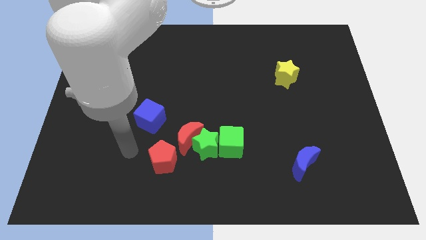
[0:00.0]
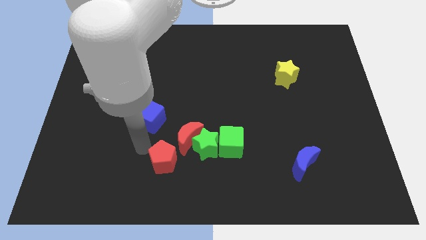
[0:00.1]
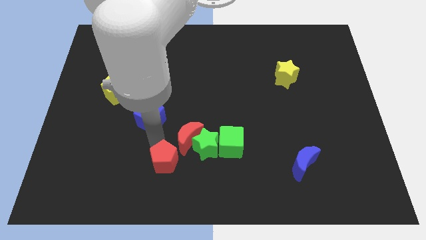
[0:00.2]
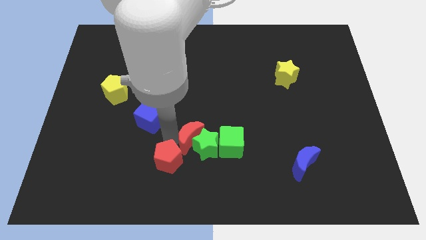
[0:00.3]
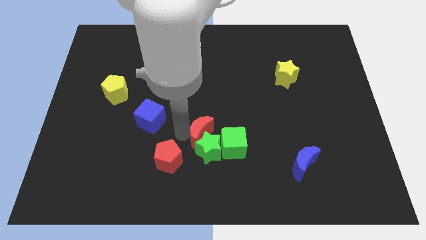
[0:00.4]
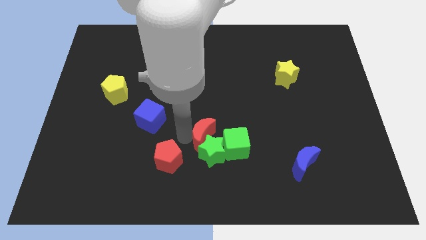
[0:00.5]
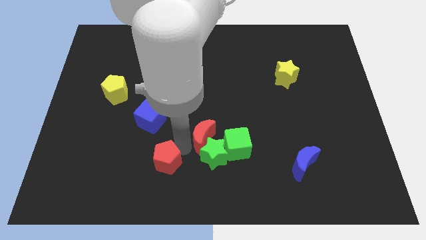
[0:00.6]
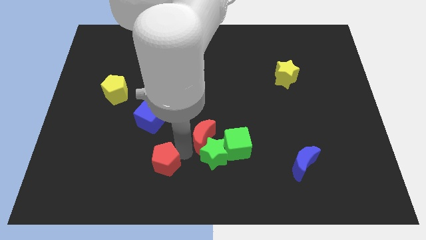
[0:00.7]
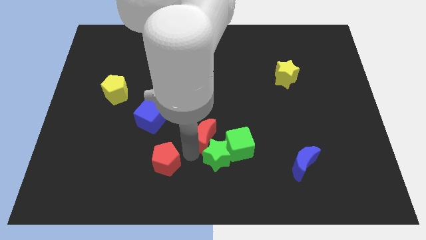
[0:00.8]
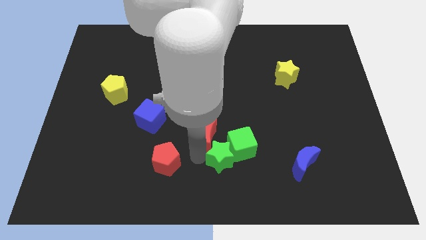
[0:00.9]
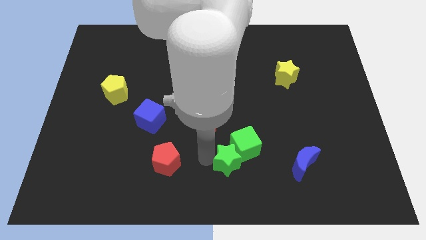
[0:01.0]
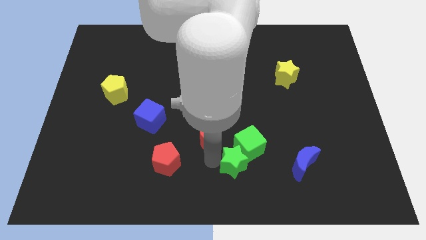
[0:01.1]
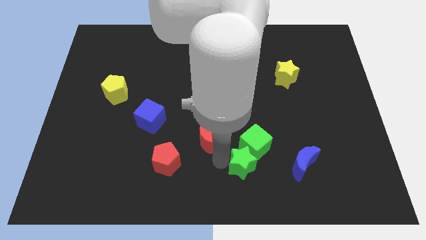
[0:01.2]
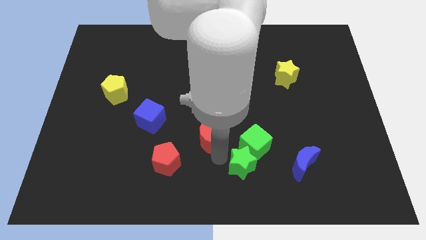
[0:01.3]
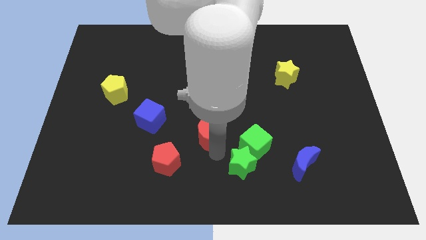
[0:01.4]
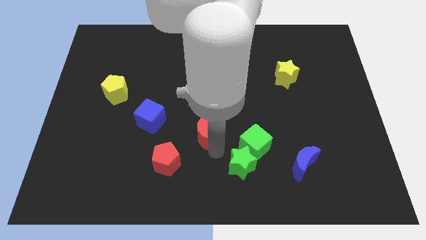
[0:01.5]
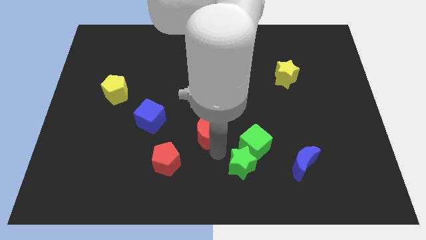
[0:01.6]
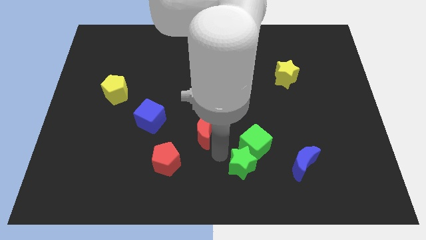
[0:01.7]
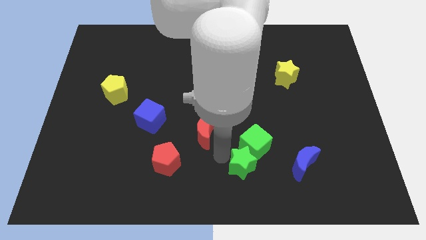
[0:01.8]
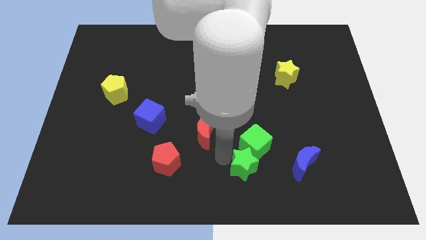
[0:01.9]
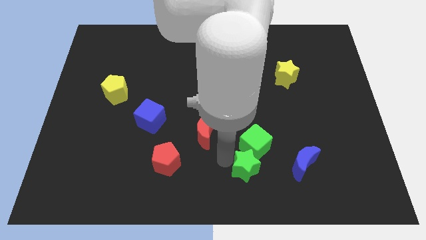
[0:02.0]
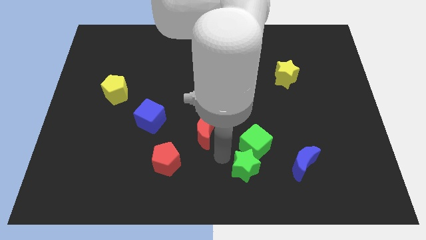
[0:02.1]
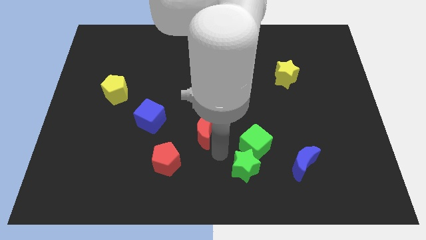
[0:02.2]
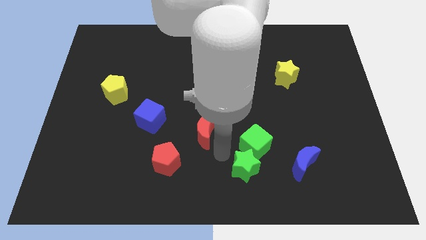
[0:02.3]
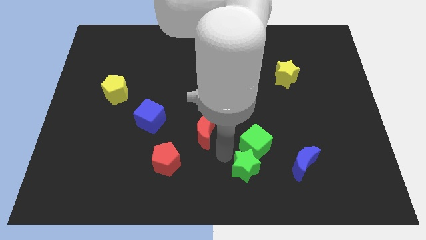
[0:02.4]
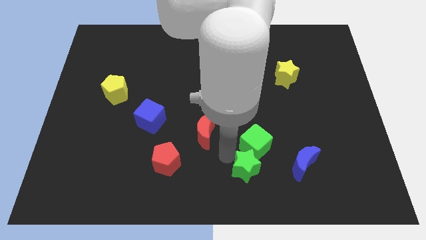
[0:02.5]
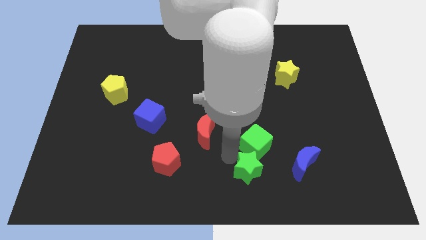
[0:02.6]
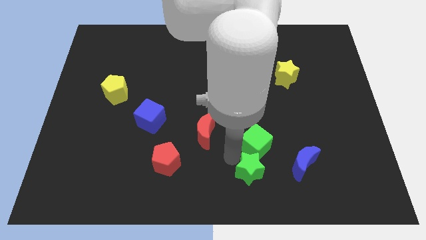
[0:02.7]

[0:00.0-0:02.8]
move the green star away from the group of blocks

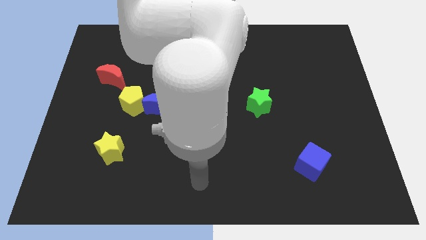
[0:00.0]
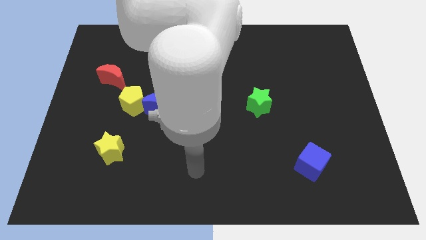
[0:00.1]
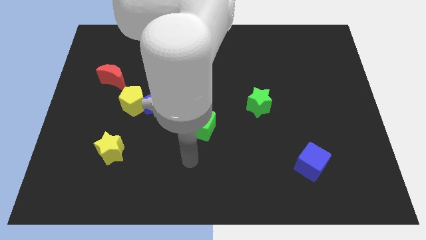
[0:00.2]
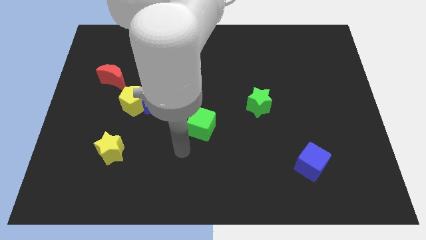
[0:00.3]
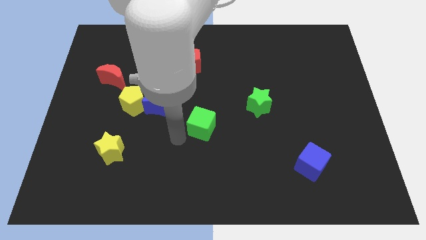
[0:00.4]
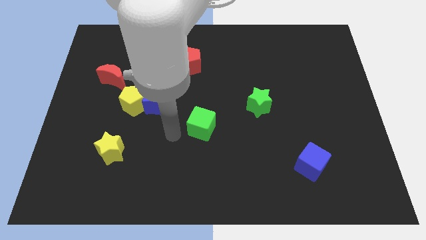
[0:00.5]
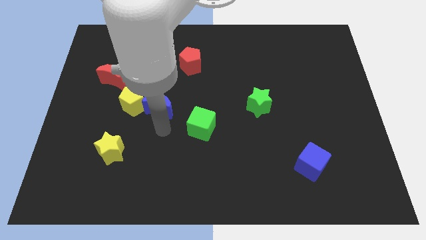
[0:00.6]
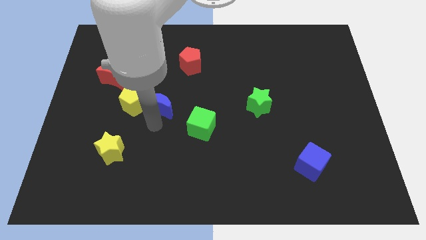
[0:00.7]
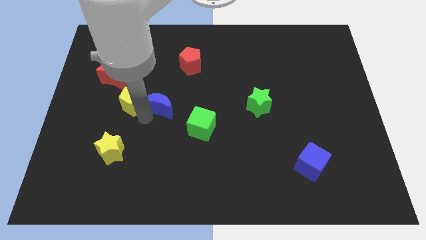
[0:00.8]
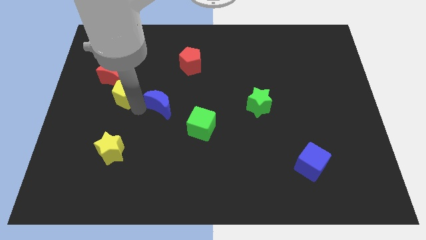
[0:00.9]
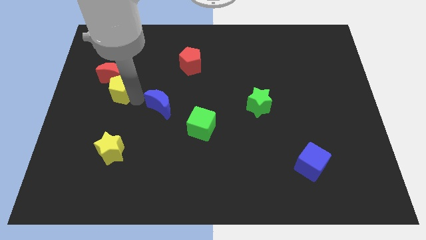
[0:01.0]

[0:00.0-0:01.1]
separate the blue moon from the yellow pentagon

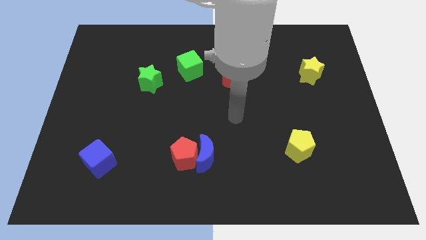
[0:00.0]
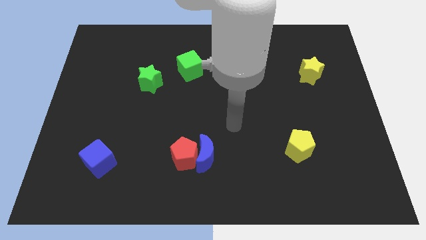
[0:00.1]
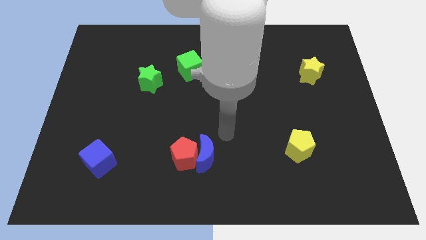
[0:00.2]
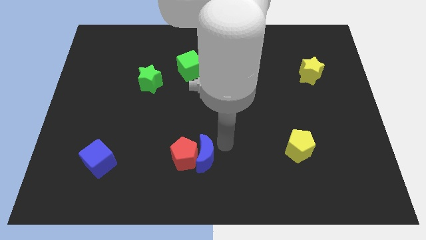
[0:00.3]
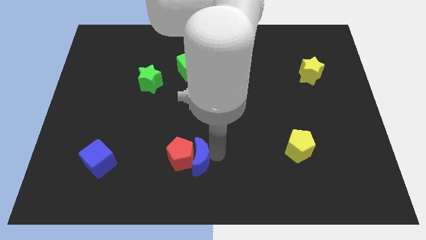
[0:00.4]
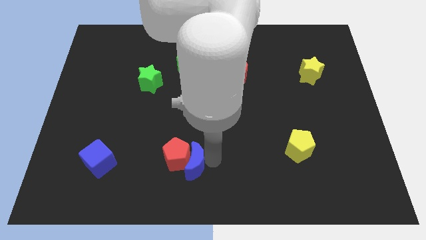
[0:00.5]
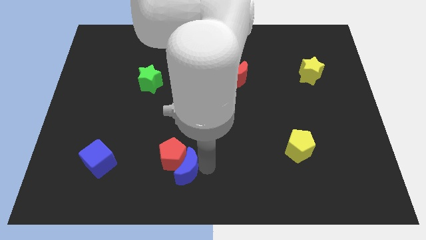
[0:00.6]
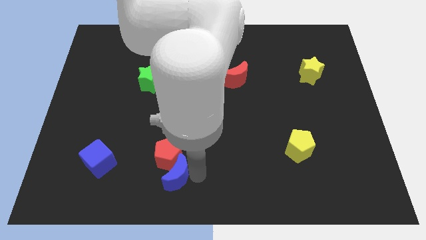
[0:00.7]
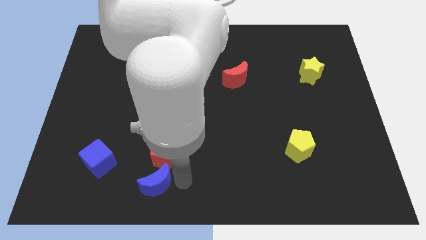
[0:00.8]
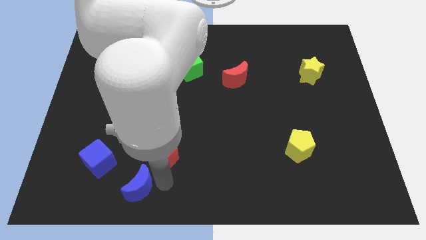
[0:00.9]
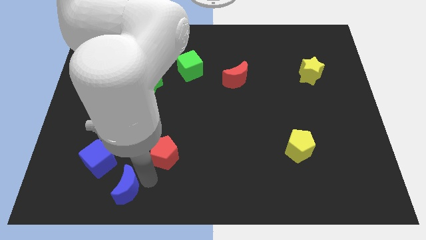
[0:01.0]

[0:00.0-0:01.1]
pull the red pentagon apart from the blue moon

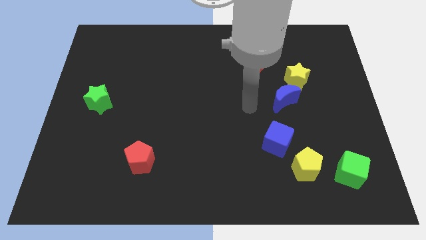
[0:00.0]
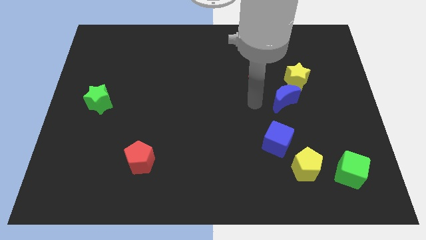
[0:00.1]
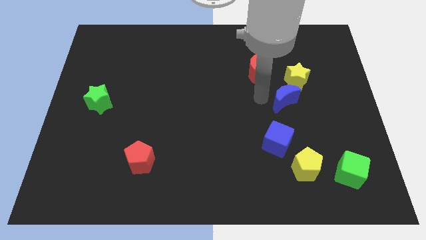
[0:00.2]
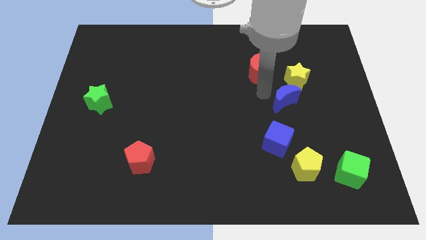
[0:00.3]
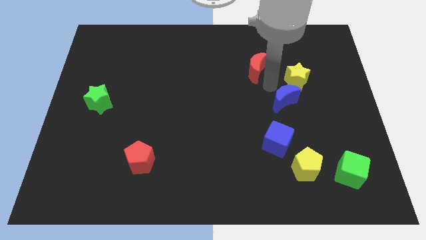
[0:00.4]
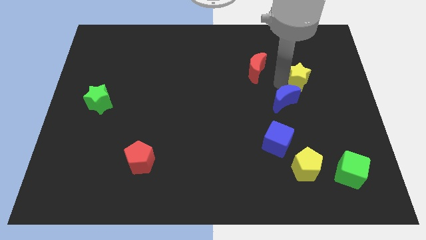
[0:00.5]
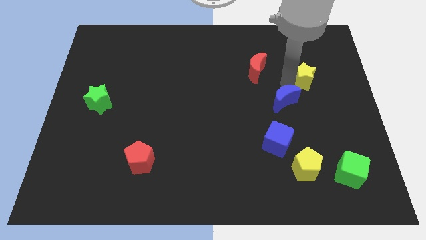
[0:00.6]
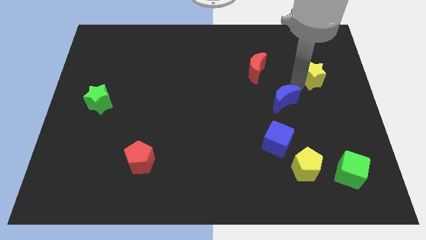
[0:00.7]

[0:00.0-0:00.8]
move the blue moon away from the yellow star

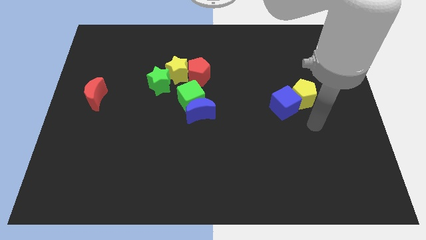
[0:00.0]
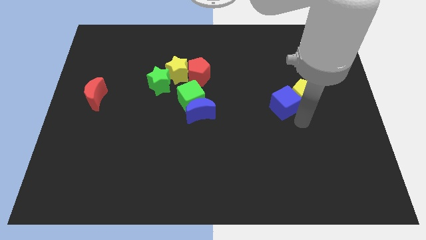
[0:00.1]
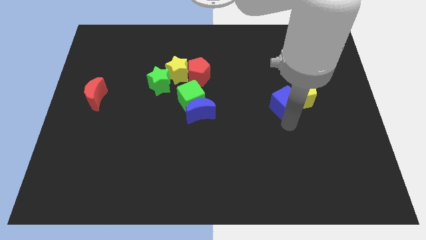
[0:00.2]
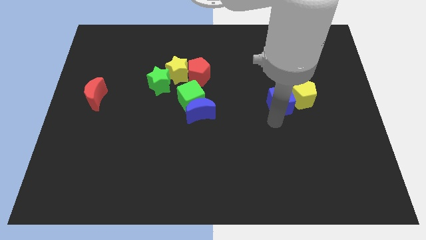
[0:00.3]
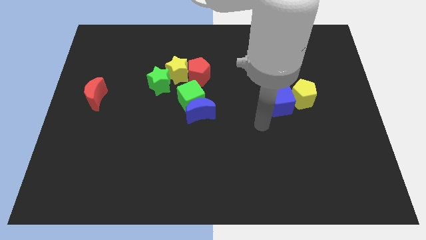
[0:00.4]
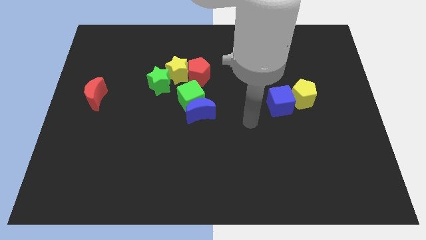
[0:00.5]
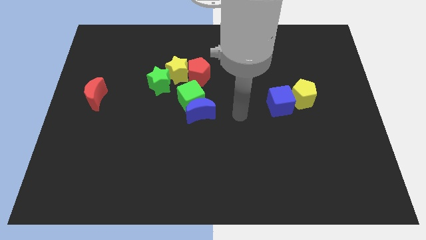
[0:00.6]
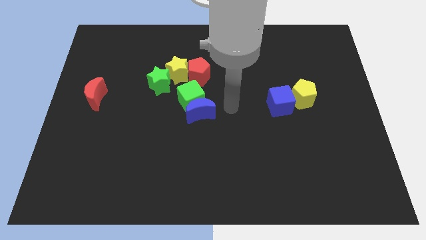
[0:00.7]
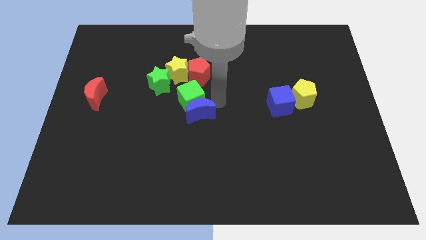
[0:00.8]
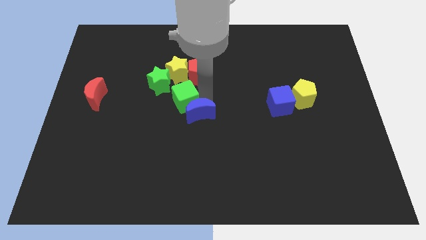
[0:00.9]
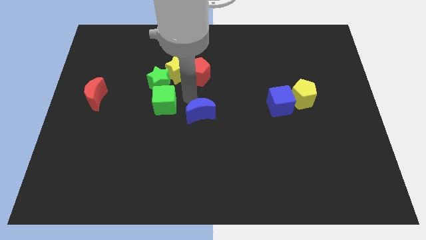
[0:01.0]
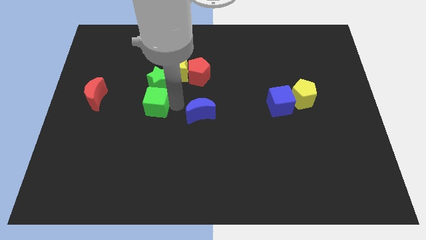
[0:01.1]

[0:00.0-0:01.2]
pull the blue moon apart from the green cube

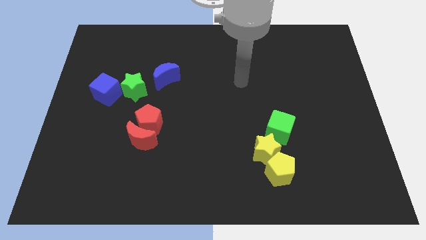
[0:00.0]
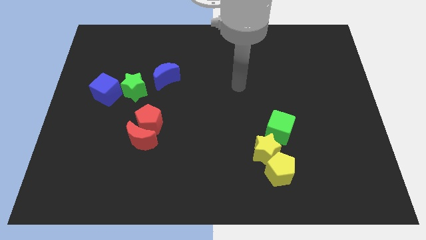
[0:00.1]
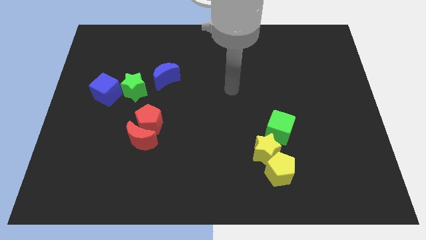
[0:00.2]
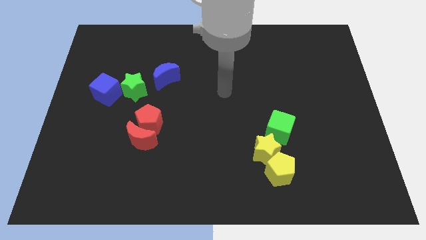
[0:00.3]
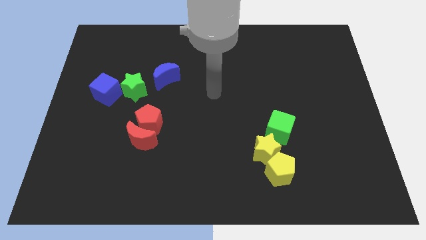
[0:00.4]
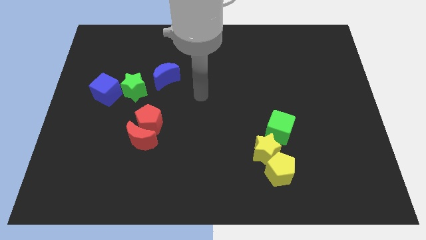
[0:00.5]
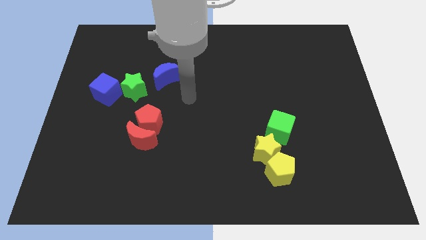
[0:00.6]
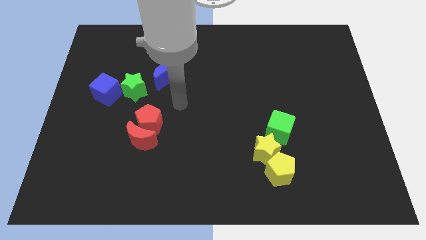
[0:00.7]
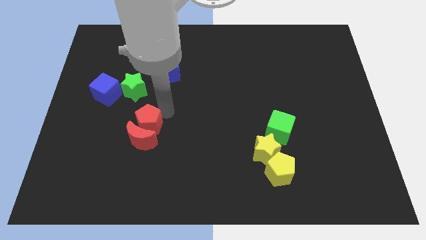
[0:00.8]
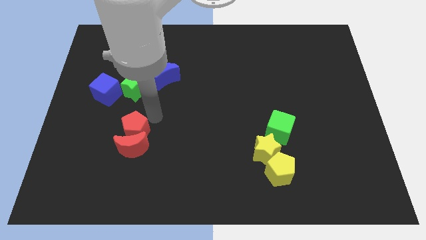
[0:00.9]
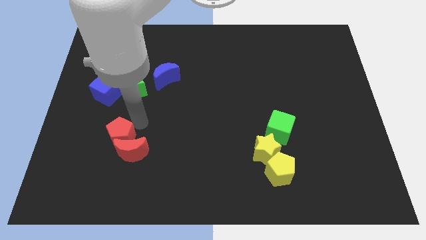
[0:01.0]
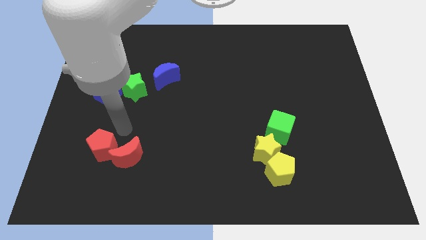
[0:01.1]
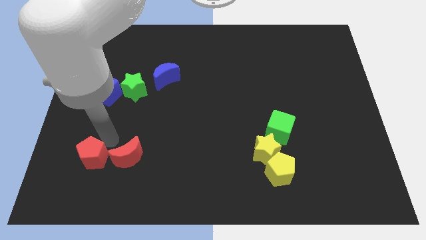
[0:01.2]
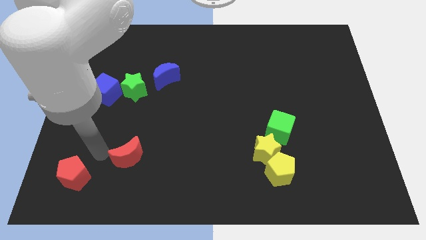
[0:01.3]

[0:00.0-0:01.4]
pull the red moon apart from the red pentagon

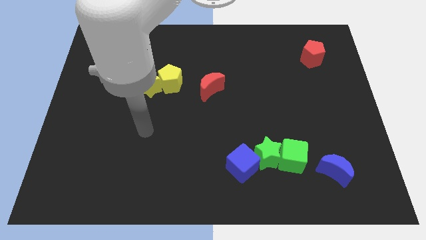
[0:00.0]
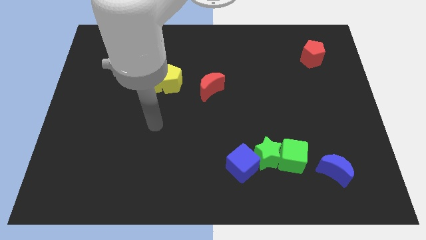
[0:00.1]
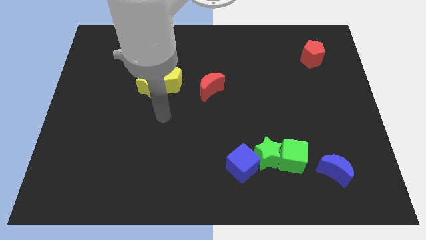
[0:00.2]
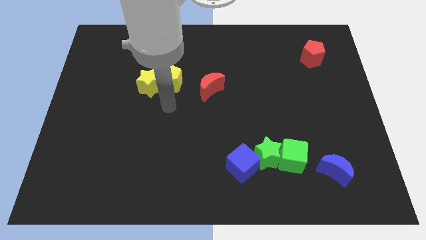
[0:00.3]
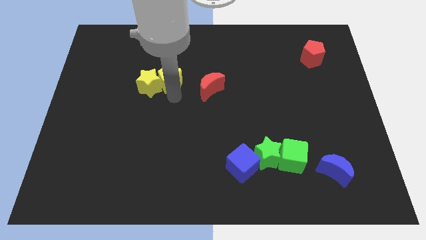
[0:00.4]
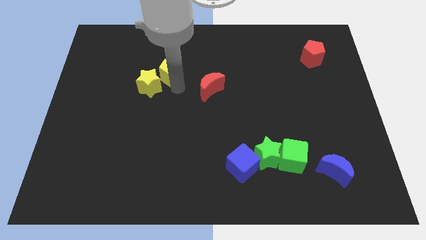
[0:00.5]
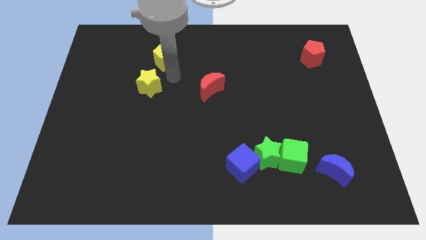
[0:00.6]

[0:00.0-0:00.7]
move the yellow star away from the yellow pentagon
